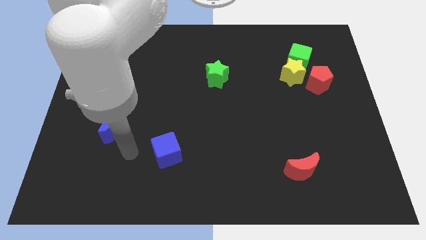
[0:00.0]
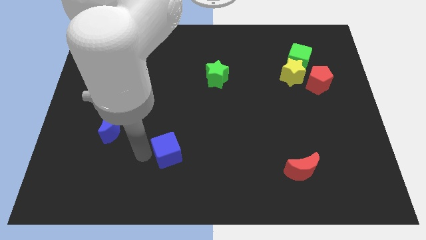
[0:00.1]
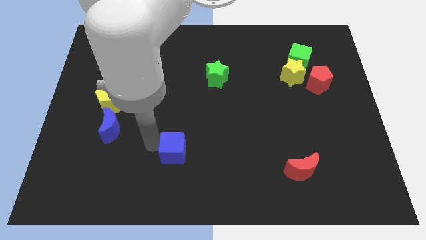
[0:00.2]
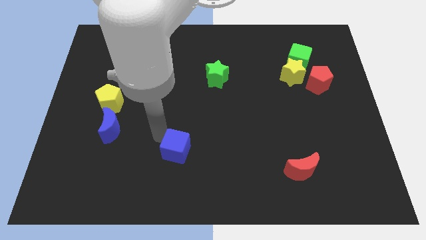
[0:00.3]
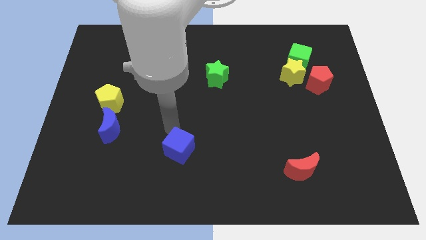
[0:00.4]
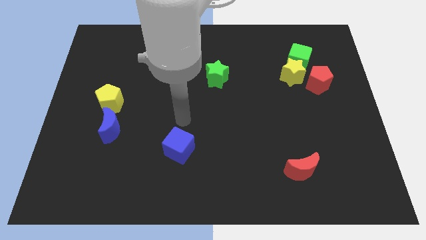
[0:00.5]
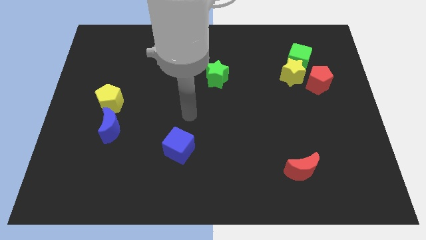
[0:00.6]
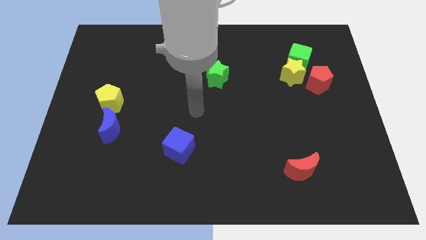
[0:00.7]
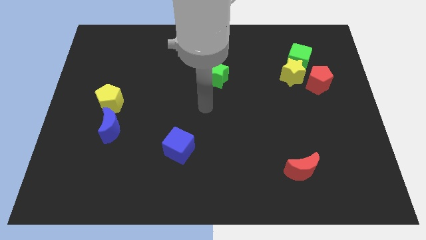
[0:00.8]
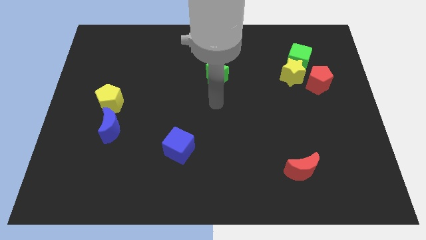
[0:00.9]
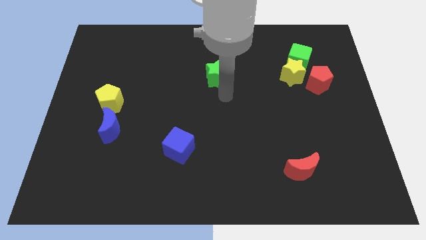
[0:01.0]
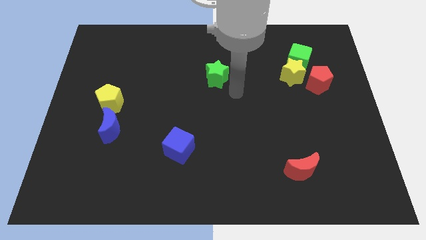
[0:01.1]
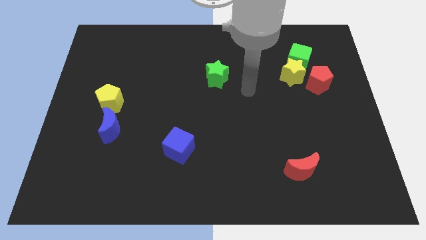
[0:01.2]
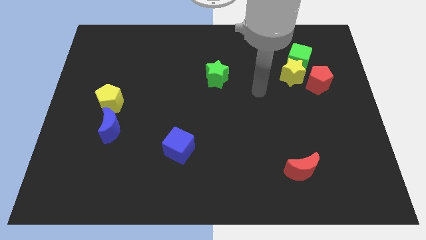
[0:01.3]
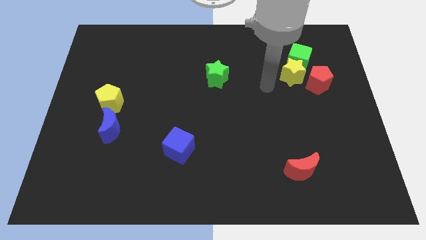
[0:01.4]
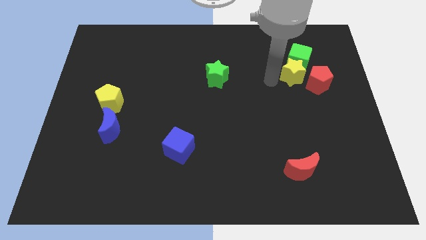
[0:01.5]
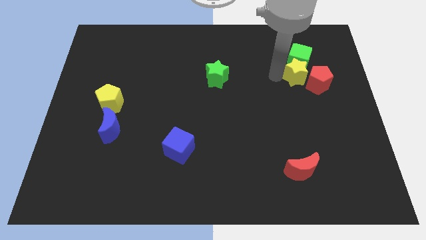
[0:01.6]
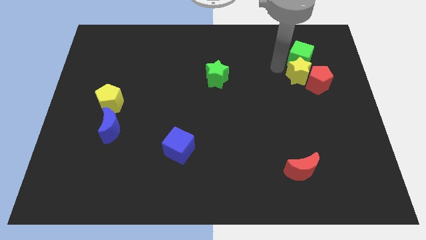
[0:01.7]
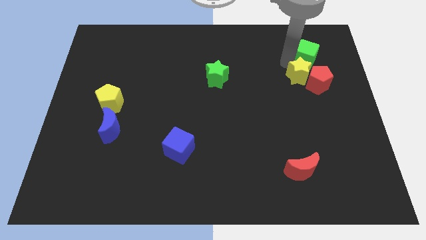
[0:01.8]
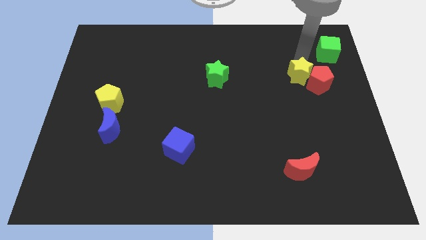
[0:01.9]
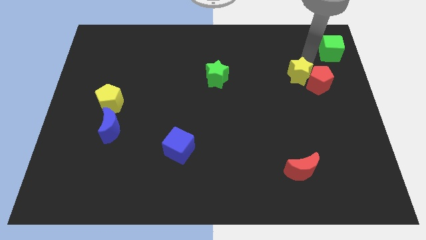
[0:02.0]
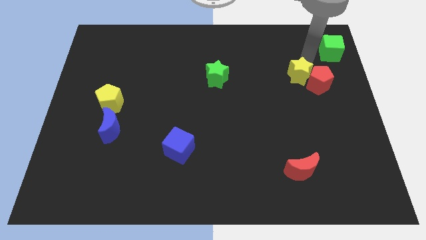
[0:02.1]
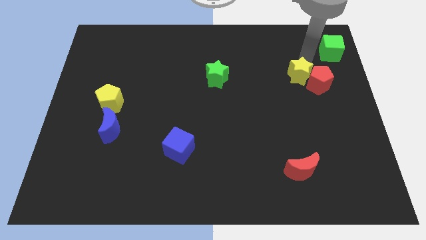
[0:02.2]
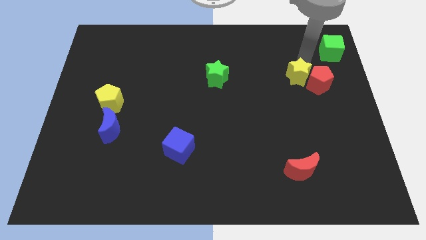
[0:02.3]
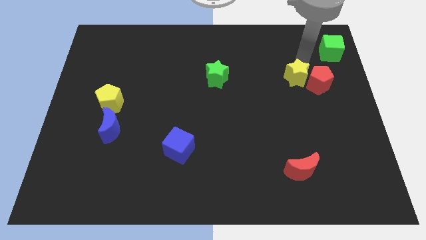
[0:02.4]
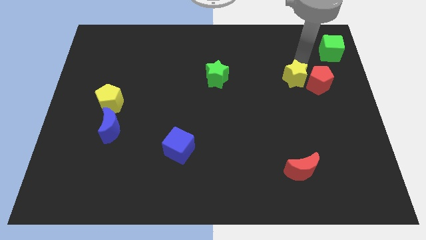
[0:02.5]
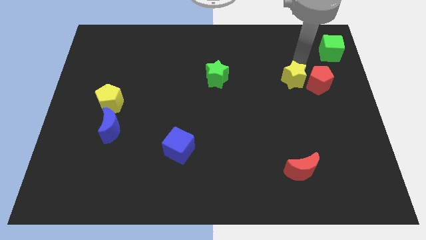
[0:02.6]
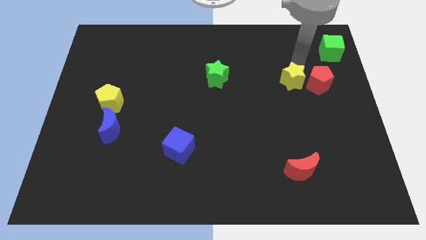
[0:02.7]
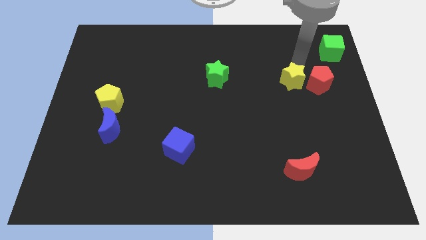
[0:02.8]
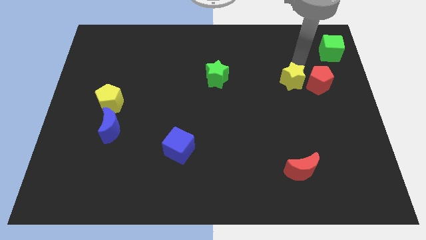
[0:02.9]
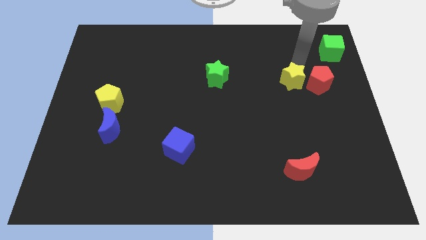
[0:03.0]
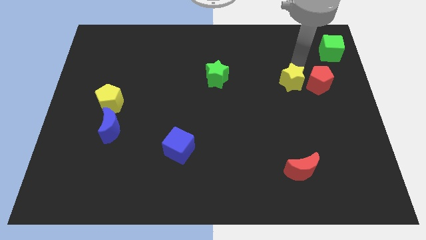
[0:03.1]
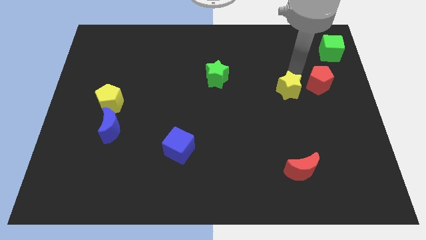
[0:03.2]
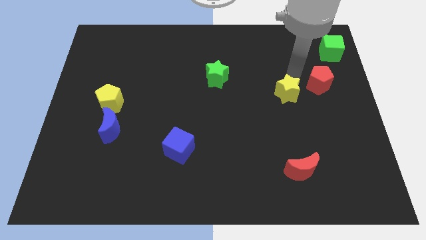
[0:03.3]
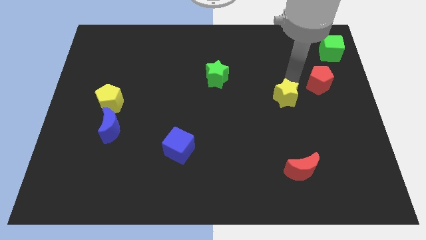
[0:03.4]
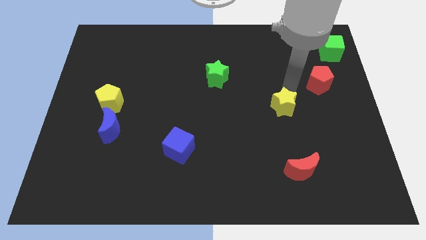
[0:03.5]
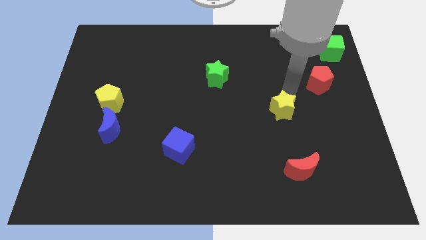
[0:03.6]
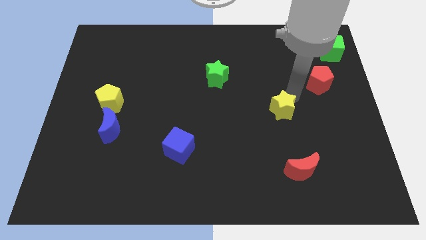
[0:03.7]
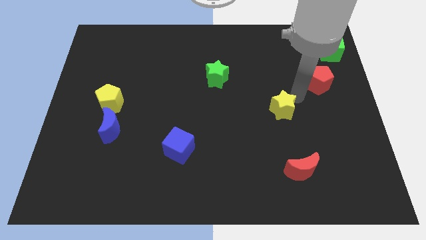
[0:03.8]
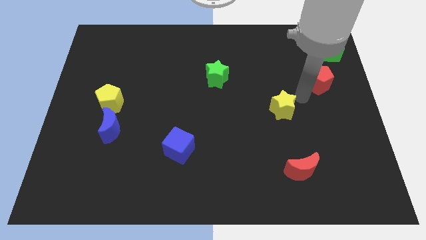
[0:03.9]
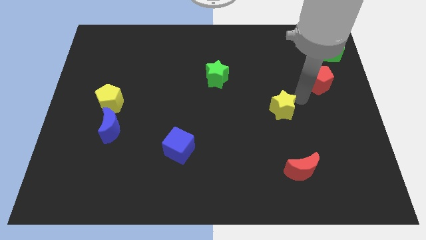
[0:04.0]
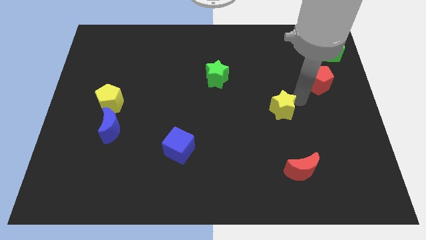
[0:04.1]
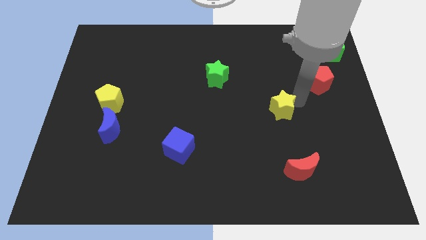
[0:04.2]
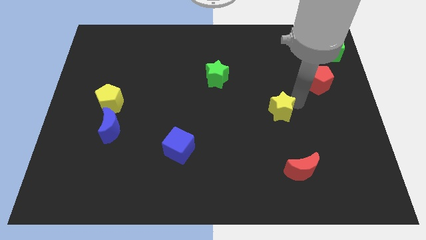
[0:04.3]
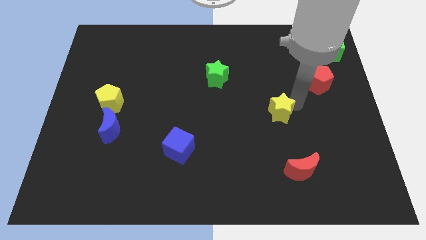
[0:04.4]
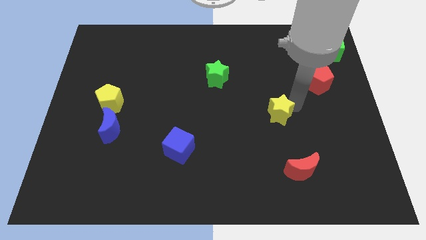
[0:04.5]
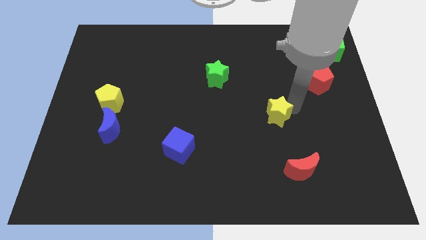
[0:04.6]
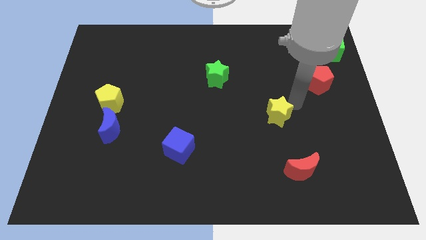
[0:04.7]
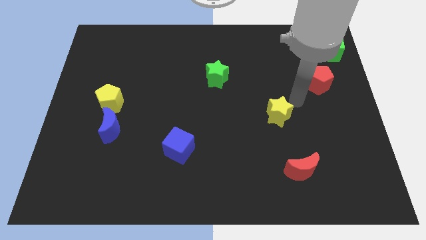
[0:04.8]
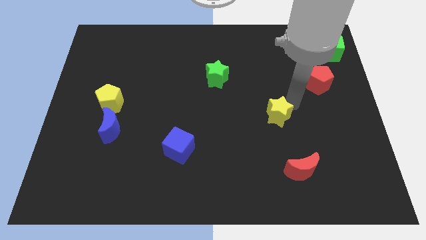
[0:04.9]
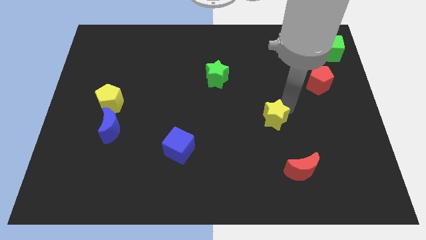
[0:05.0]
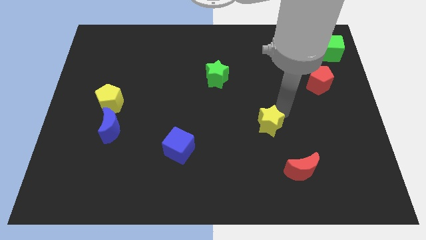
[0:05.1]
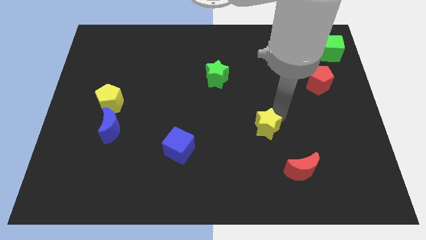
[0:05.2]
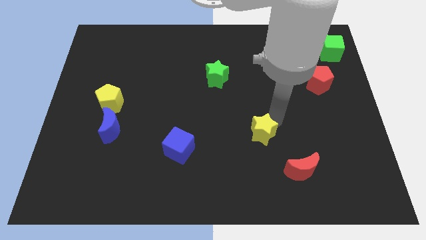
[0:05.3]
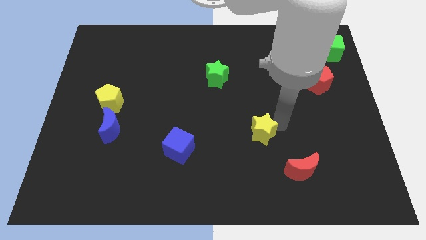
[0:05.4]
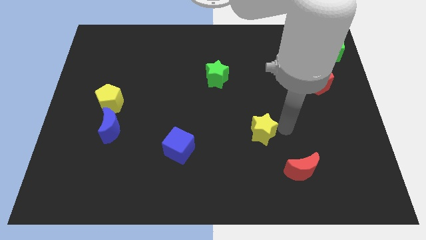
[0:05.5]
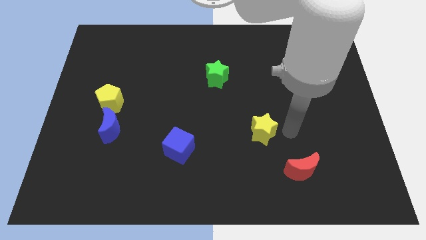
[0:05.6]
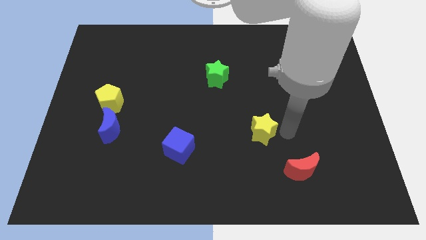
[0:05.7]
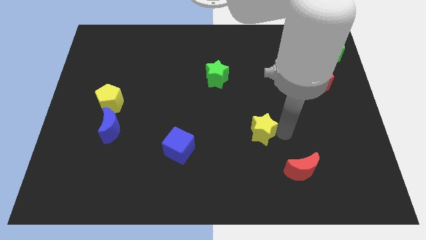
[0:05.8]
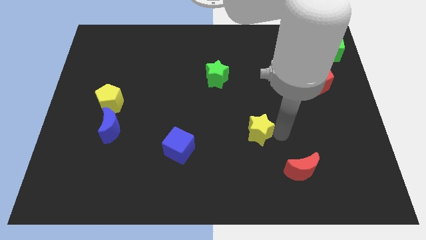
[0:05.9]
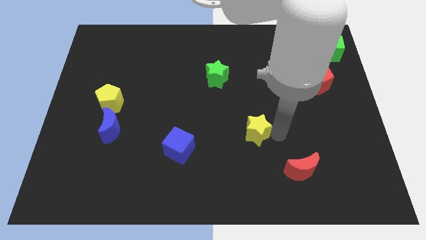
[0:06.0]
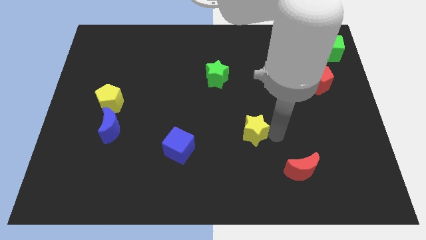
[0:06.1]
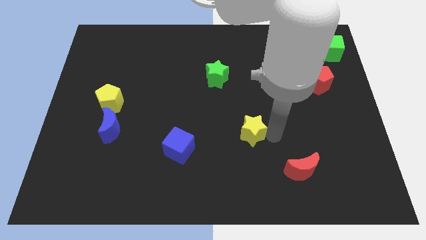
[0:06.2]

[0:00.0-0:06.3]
push the yellow star downwards and left diagonally

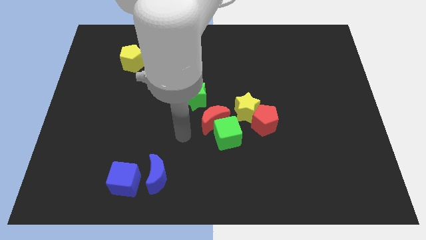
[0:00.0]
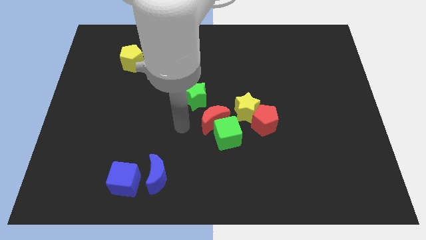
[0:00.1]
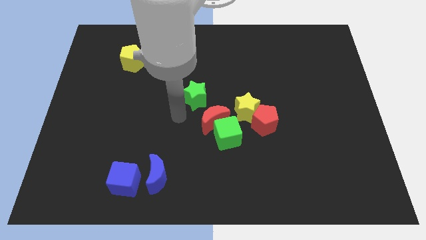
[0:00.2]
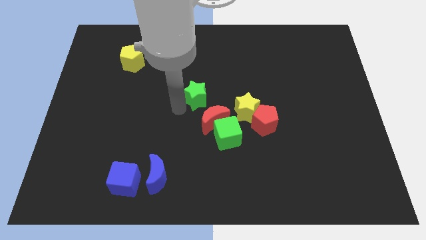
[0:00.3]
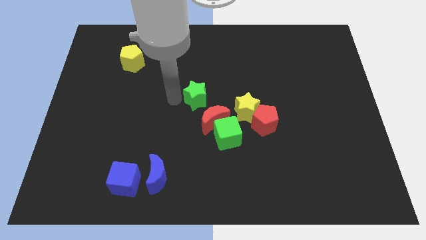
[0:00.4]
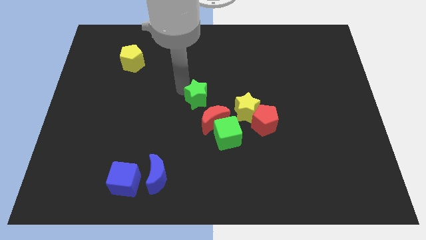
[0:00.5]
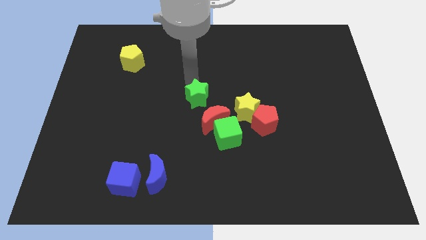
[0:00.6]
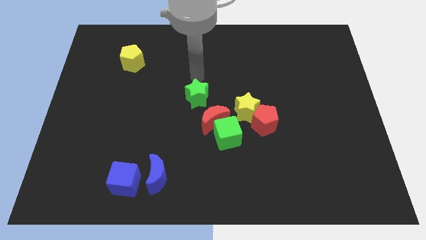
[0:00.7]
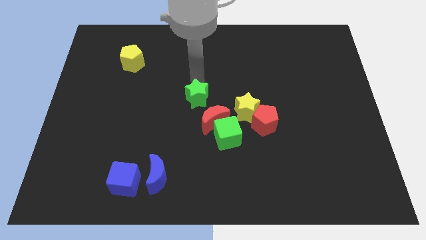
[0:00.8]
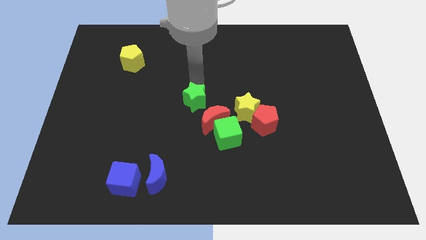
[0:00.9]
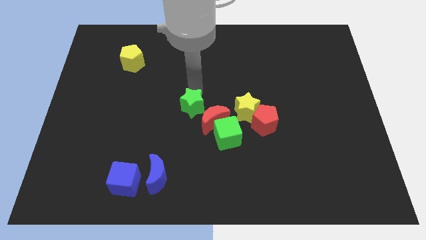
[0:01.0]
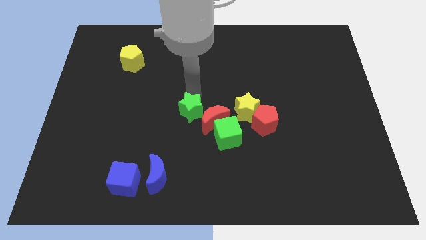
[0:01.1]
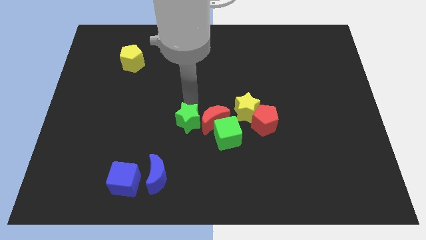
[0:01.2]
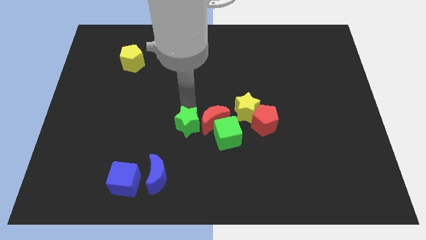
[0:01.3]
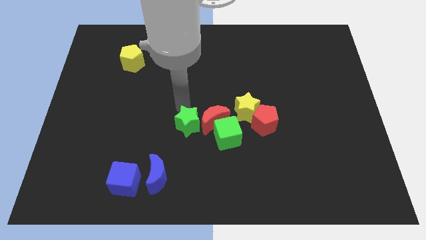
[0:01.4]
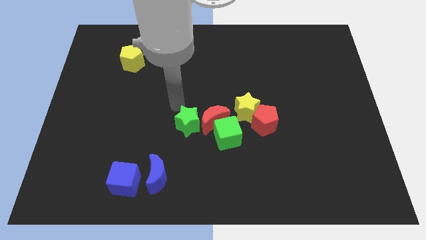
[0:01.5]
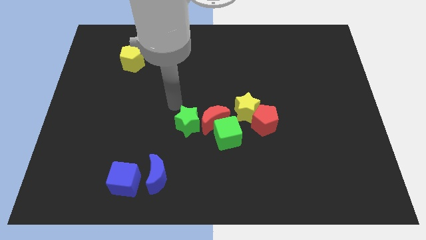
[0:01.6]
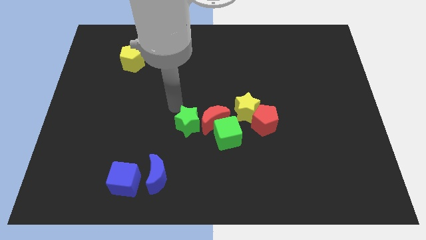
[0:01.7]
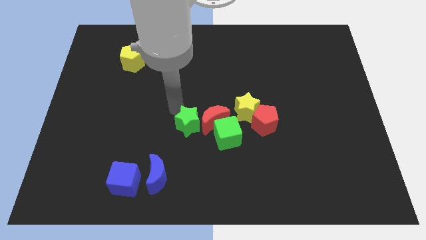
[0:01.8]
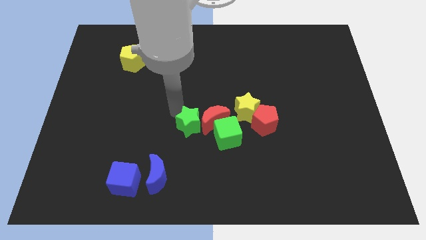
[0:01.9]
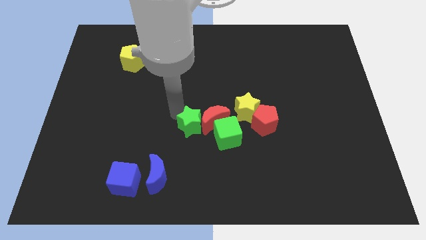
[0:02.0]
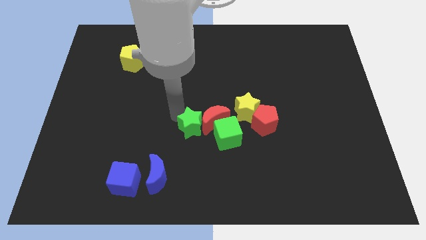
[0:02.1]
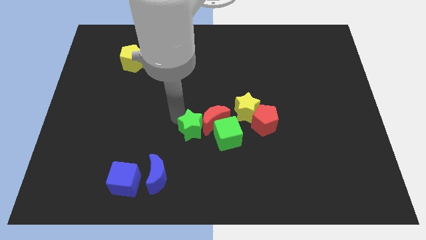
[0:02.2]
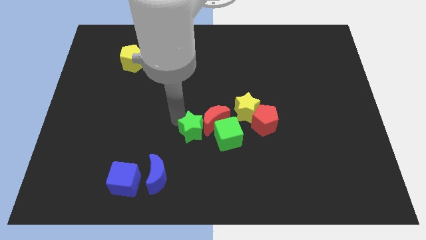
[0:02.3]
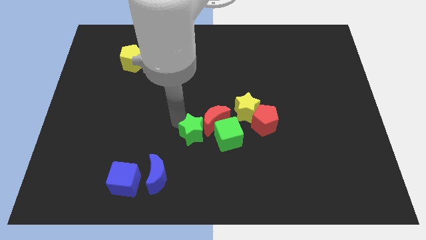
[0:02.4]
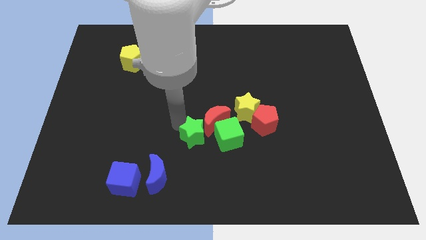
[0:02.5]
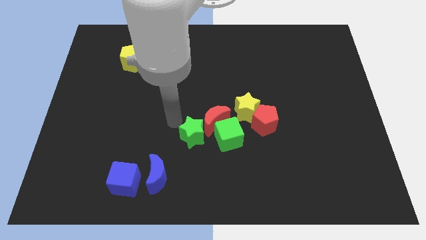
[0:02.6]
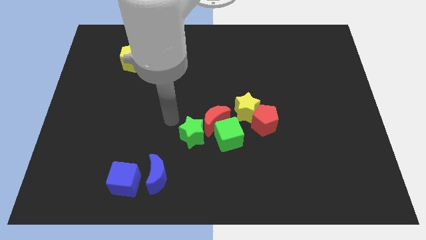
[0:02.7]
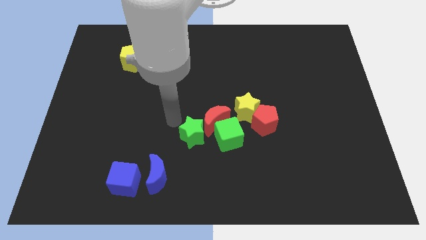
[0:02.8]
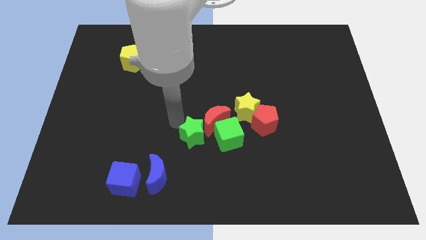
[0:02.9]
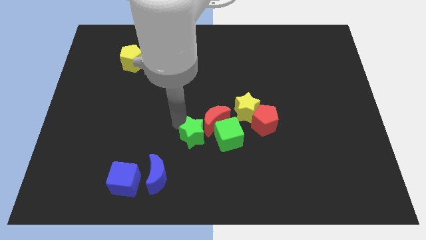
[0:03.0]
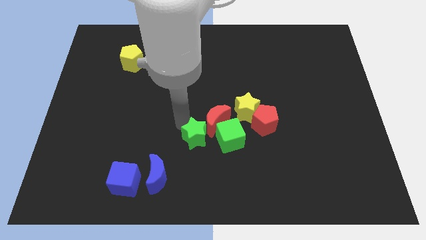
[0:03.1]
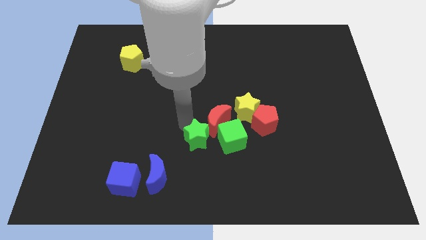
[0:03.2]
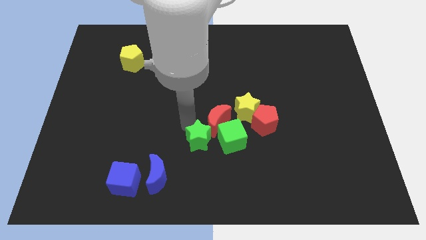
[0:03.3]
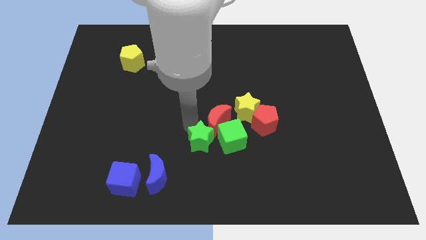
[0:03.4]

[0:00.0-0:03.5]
slightly push the green star downwards and then to the right
